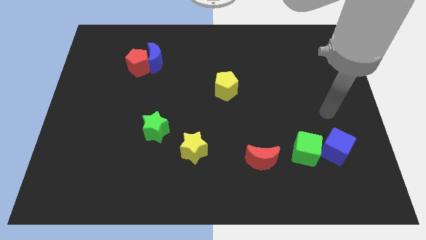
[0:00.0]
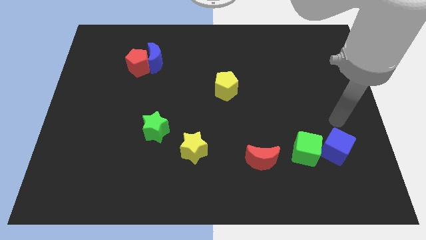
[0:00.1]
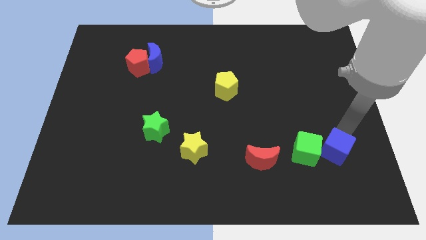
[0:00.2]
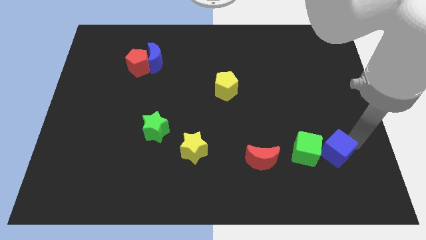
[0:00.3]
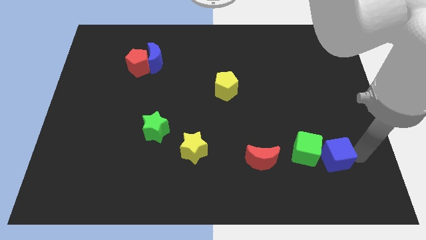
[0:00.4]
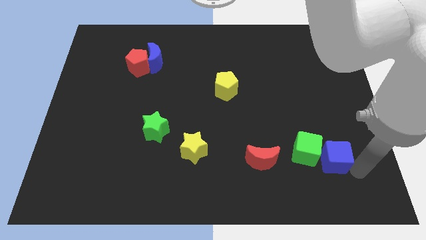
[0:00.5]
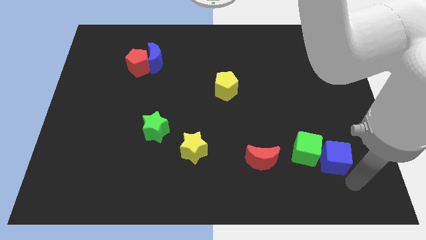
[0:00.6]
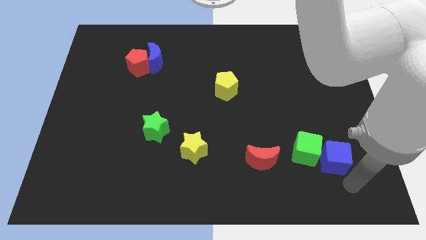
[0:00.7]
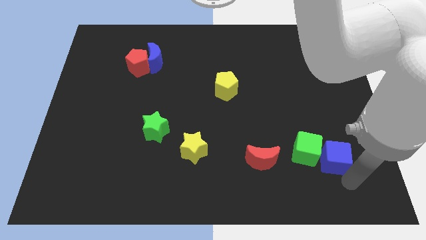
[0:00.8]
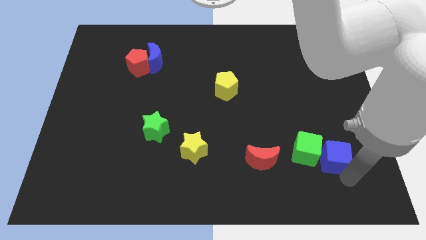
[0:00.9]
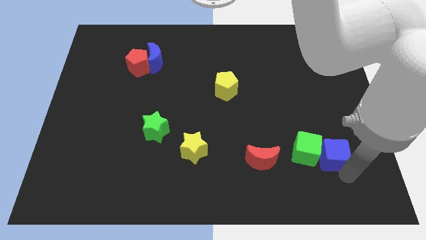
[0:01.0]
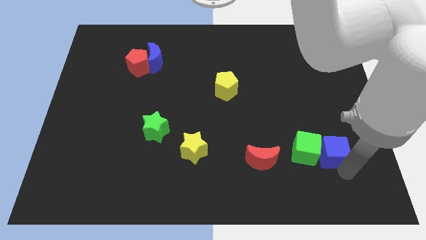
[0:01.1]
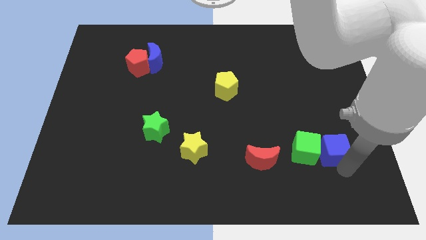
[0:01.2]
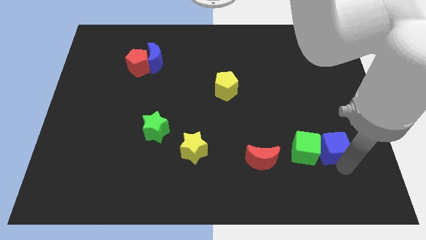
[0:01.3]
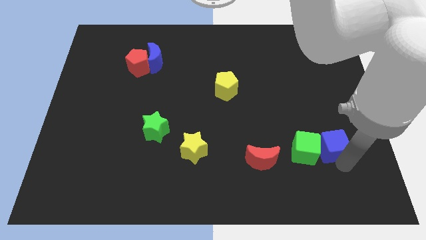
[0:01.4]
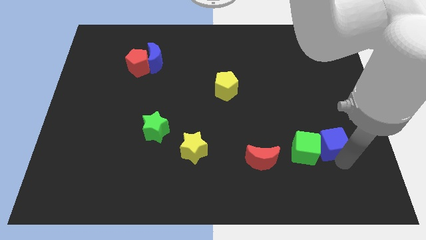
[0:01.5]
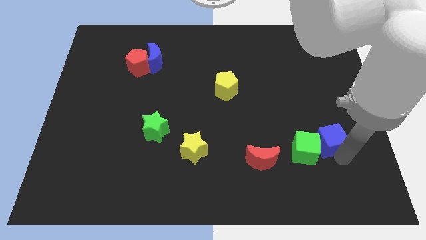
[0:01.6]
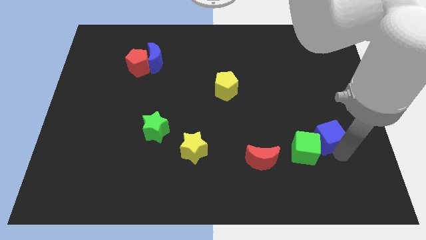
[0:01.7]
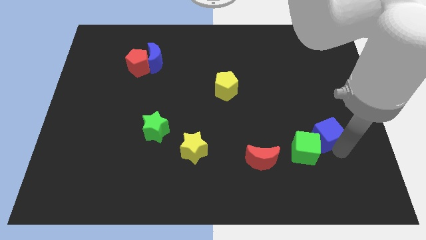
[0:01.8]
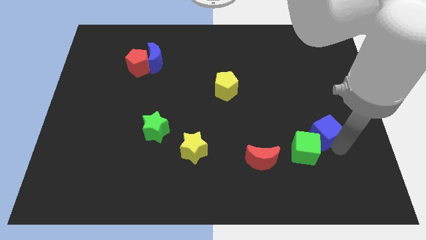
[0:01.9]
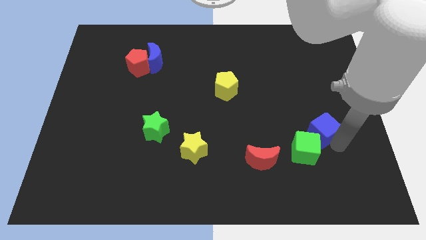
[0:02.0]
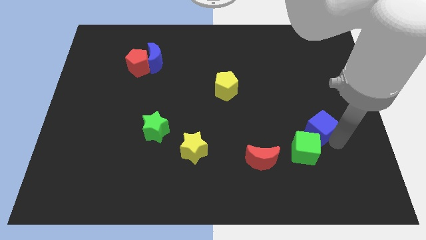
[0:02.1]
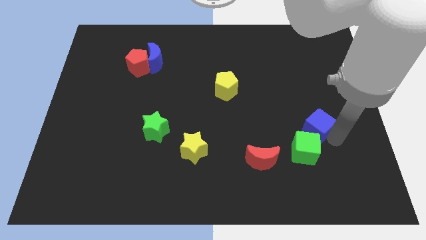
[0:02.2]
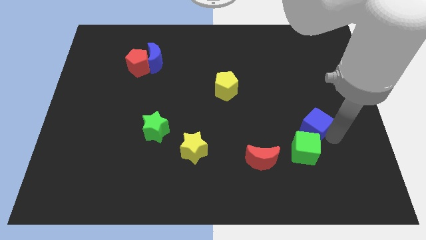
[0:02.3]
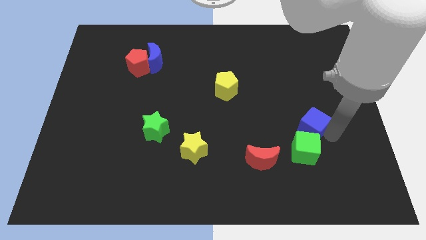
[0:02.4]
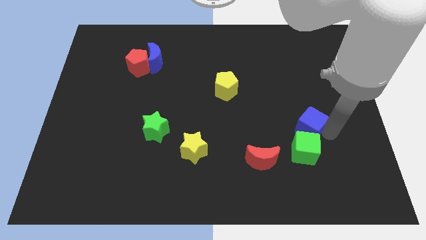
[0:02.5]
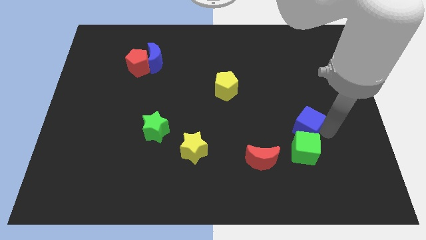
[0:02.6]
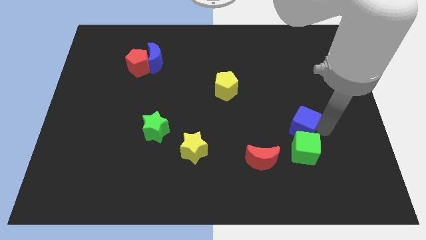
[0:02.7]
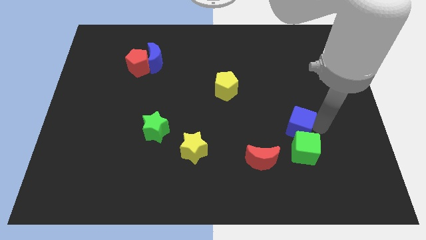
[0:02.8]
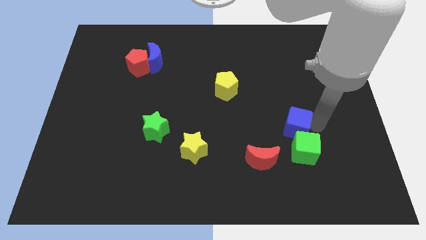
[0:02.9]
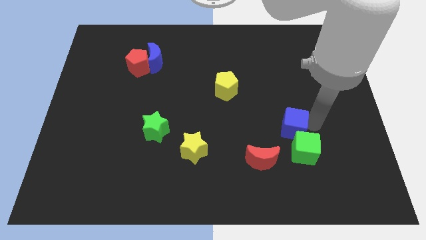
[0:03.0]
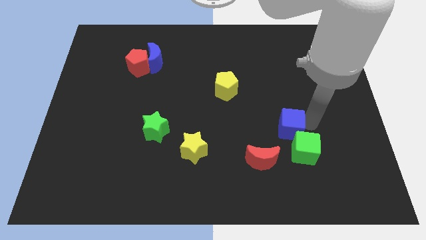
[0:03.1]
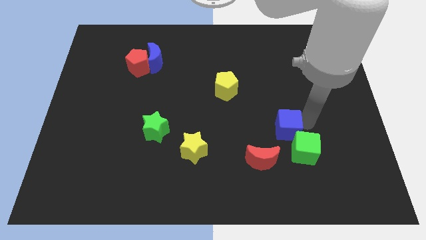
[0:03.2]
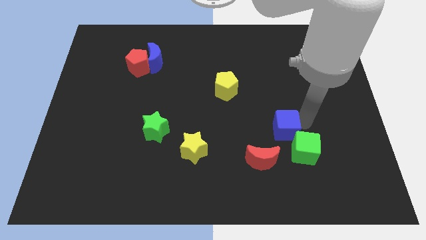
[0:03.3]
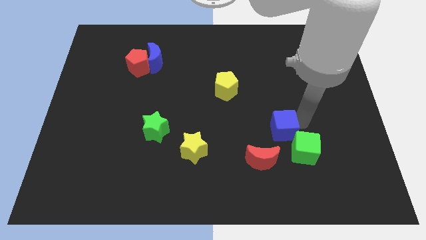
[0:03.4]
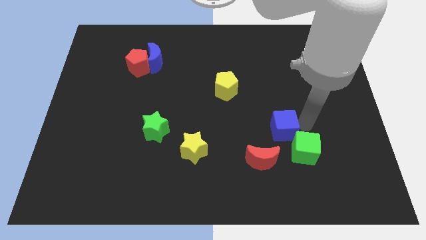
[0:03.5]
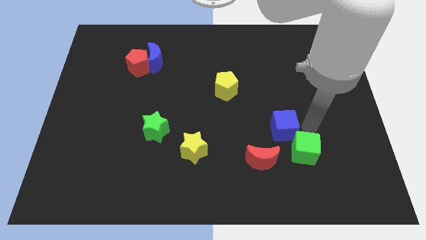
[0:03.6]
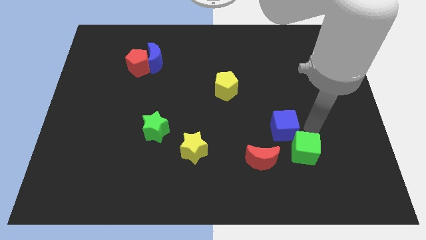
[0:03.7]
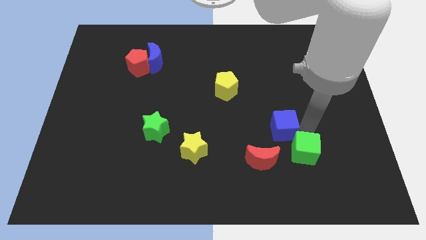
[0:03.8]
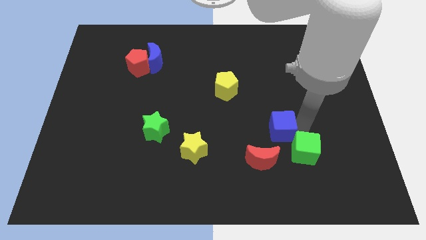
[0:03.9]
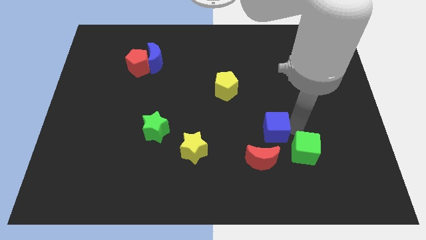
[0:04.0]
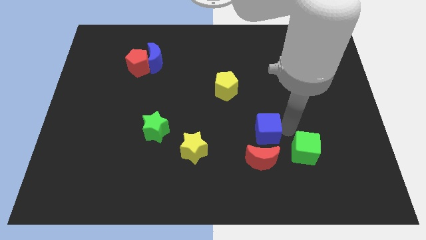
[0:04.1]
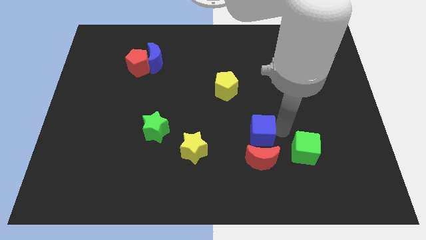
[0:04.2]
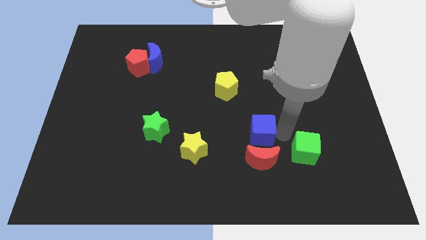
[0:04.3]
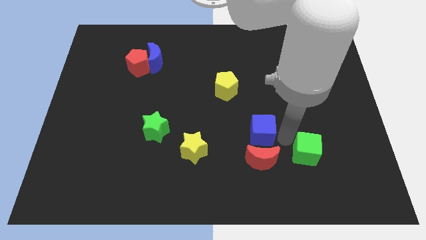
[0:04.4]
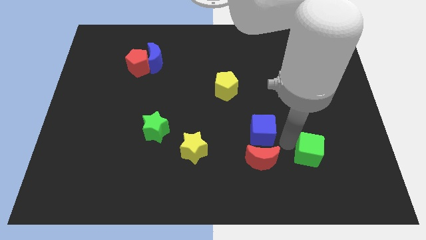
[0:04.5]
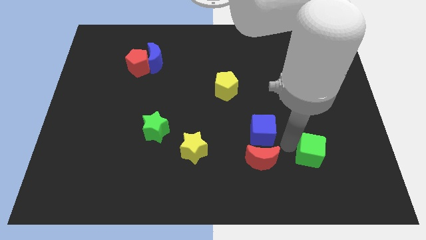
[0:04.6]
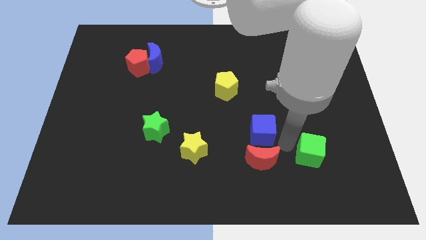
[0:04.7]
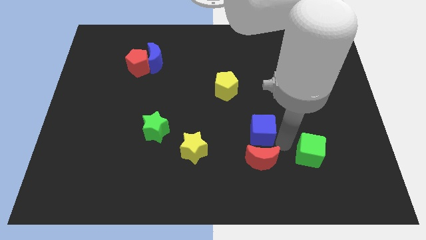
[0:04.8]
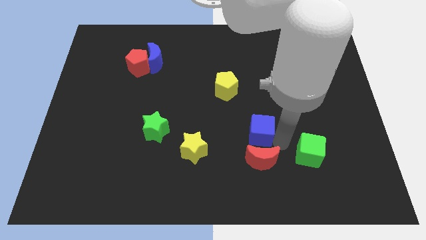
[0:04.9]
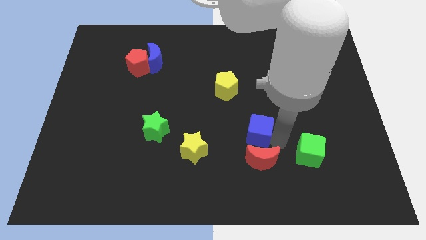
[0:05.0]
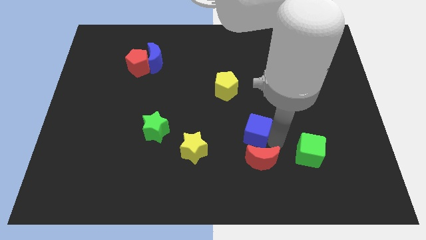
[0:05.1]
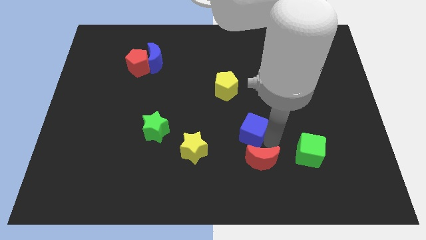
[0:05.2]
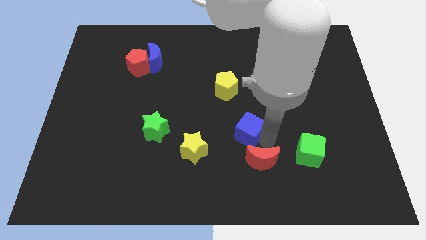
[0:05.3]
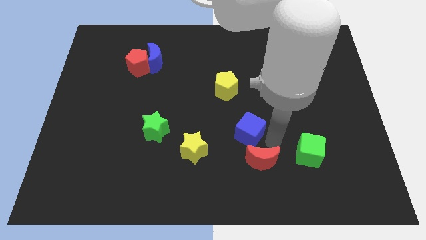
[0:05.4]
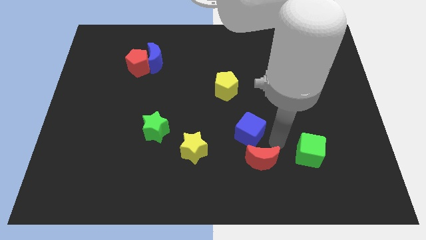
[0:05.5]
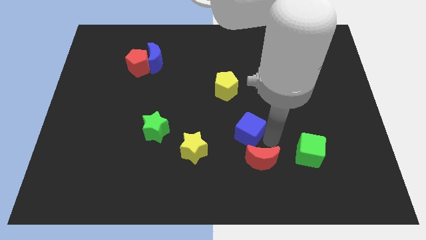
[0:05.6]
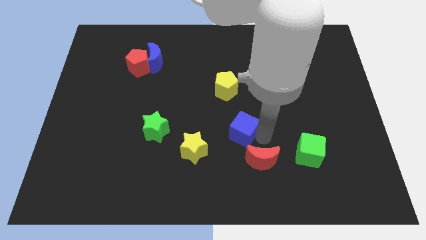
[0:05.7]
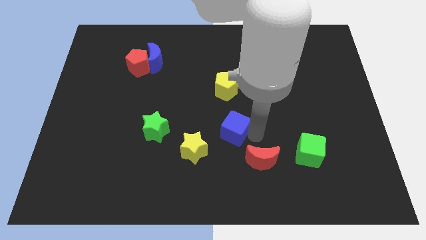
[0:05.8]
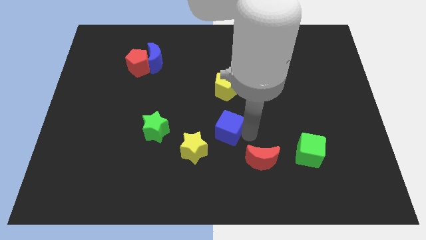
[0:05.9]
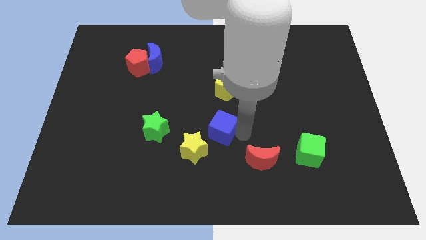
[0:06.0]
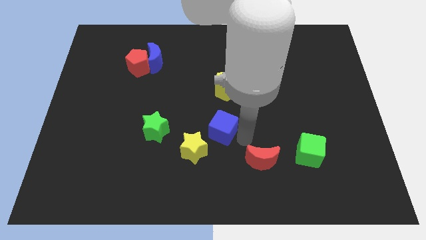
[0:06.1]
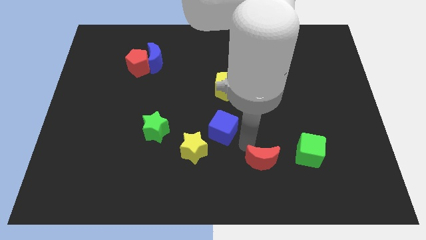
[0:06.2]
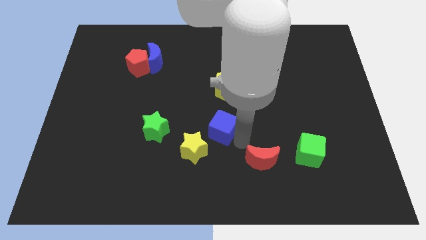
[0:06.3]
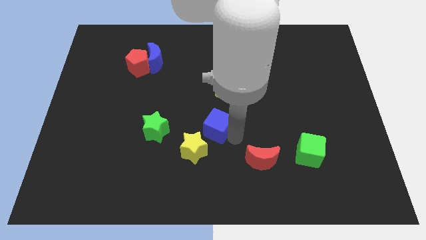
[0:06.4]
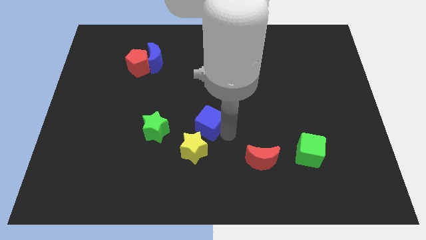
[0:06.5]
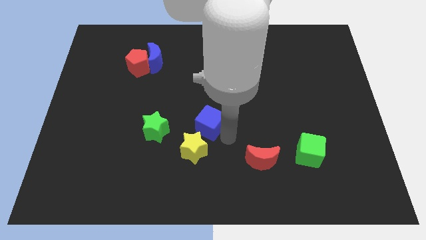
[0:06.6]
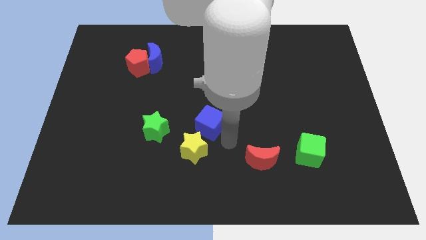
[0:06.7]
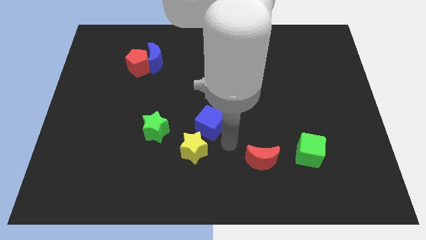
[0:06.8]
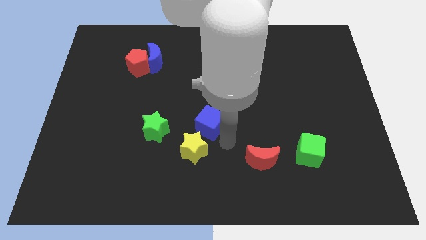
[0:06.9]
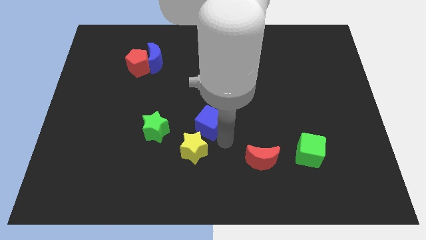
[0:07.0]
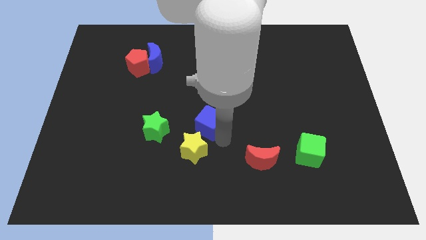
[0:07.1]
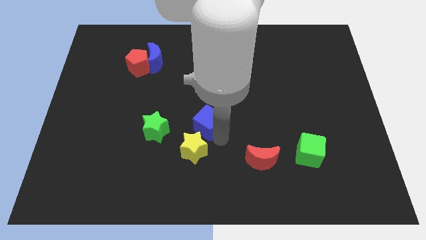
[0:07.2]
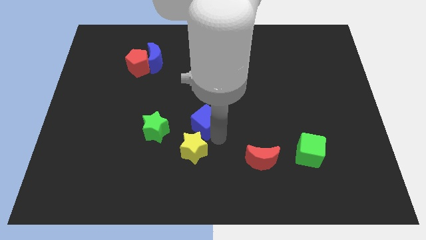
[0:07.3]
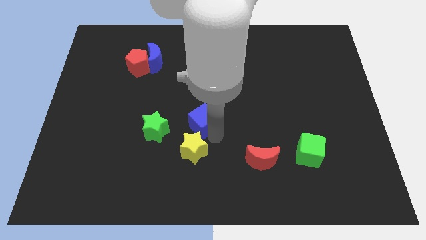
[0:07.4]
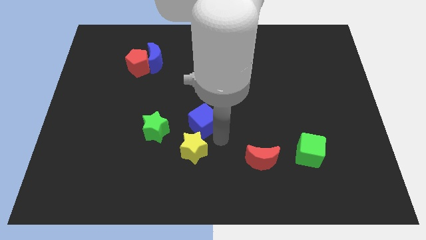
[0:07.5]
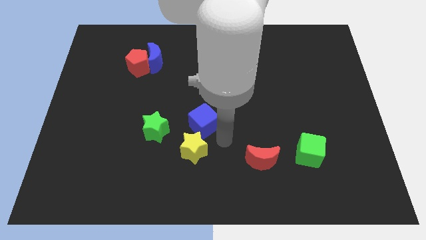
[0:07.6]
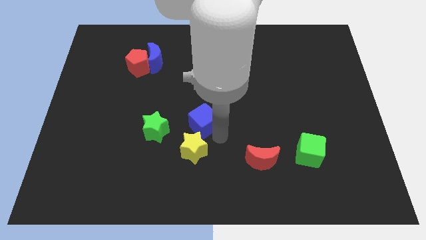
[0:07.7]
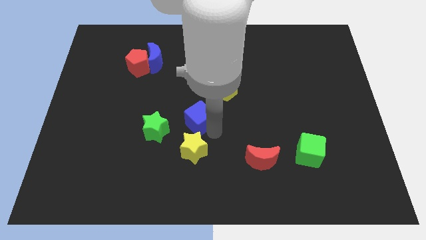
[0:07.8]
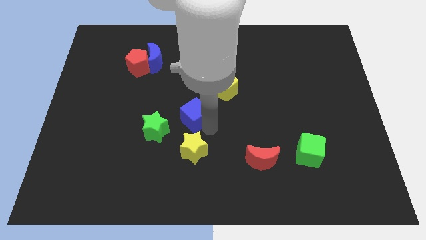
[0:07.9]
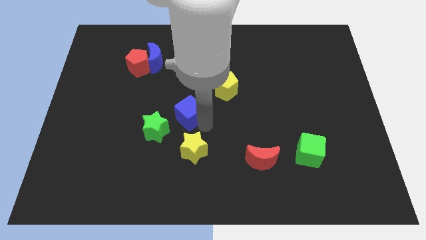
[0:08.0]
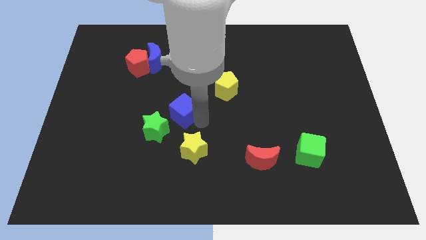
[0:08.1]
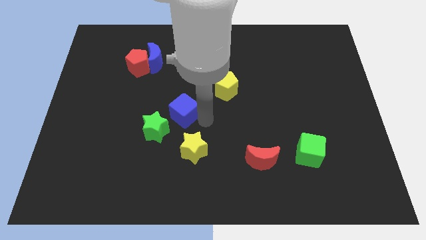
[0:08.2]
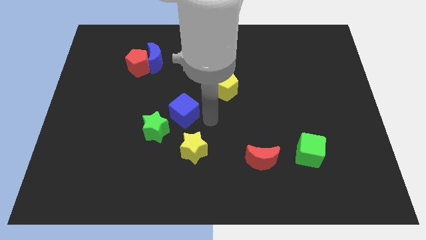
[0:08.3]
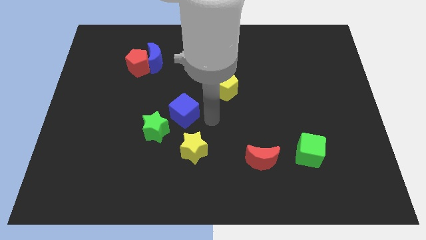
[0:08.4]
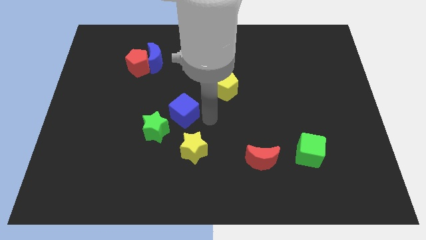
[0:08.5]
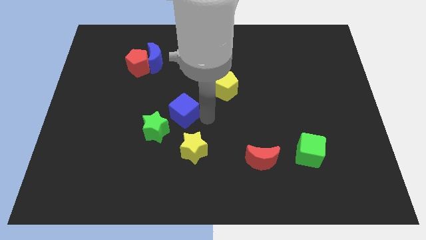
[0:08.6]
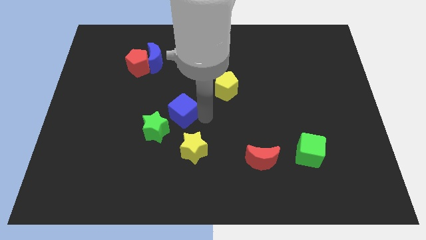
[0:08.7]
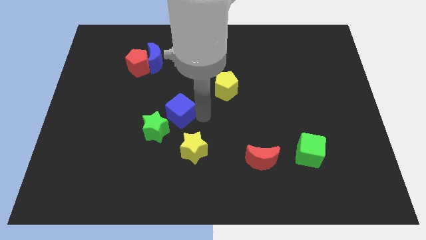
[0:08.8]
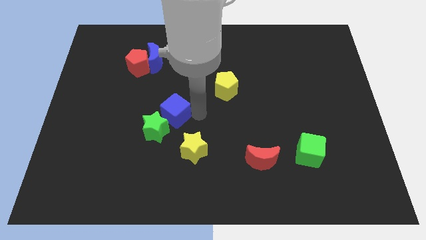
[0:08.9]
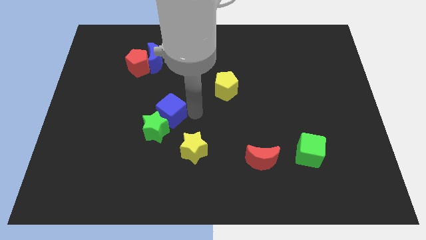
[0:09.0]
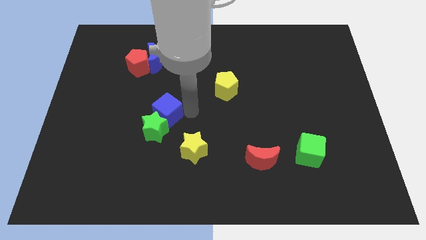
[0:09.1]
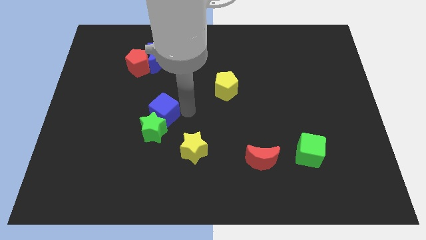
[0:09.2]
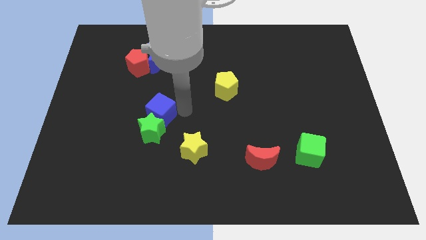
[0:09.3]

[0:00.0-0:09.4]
move the blue cube diagonally up and to the left of the green star
